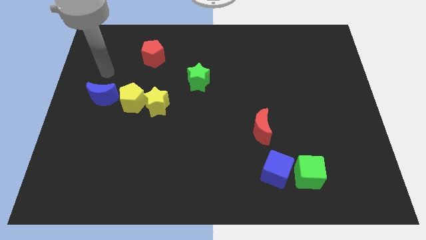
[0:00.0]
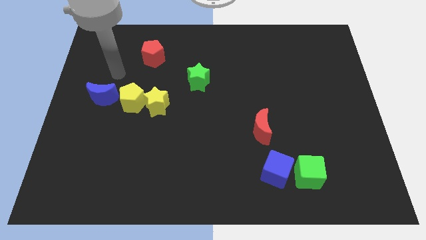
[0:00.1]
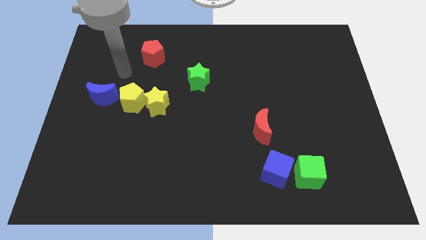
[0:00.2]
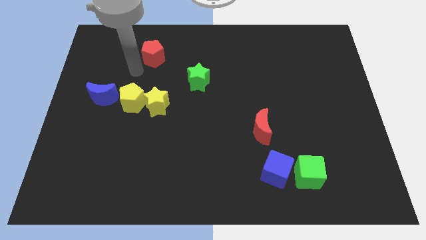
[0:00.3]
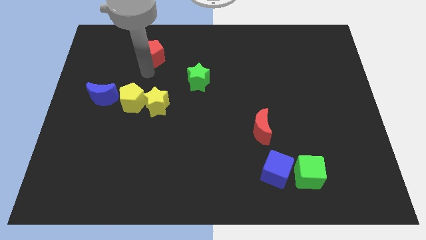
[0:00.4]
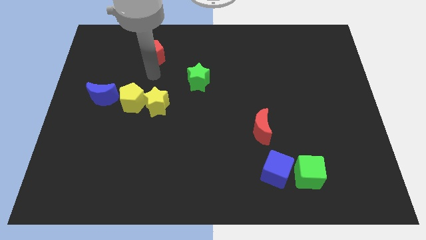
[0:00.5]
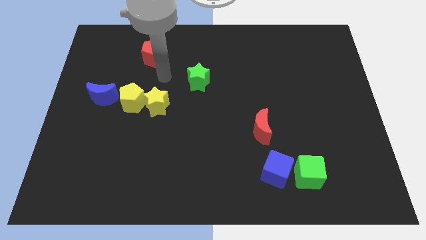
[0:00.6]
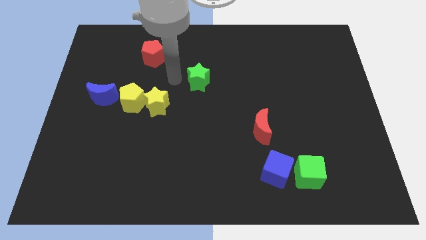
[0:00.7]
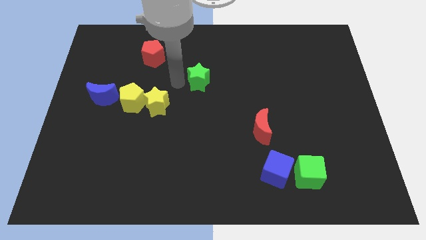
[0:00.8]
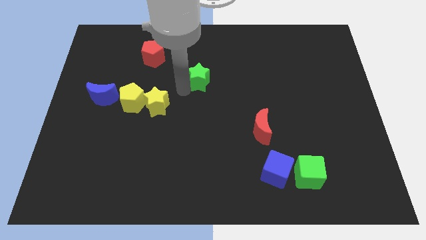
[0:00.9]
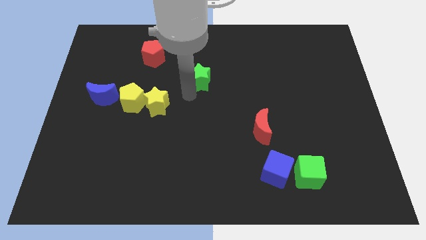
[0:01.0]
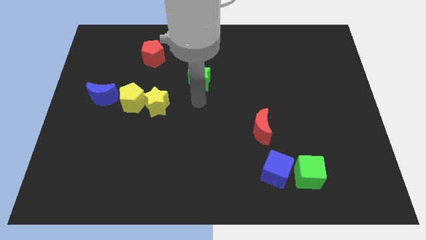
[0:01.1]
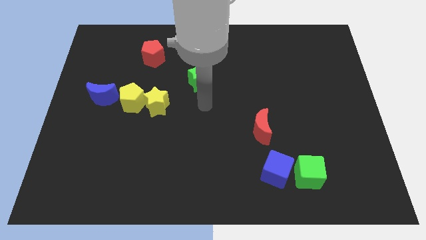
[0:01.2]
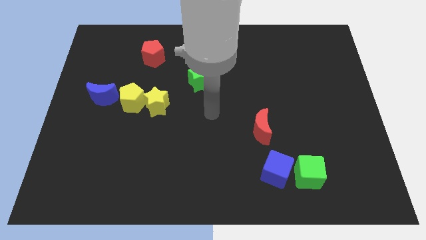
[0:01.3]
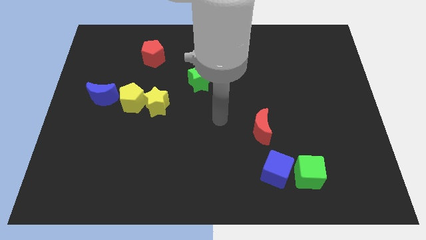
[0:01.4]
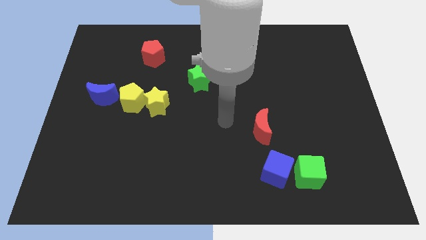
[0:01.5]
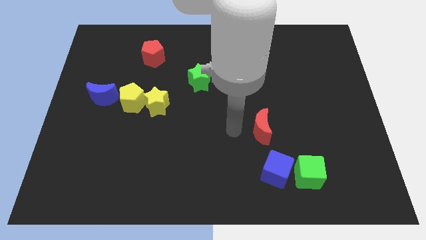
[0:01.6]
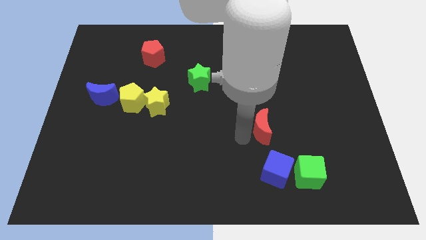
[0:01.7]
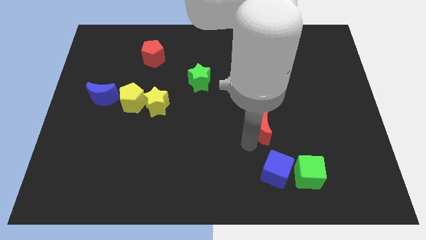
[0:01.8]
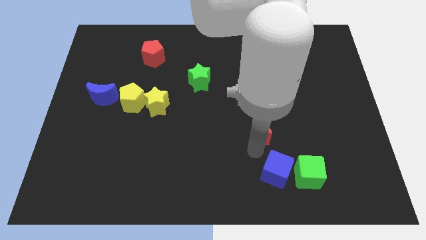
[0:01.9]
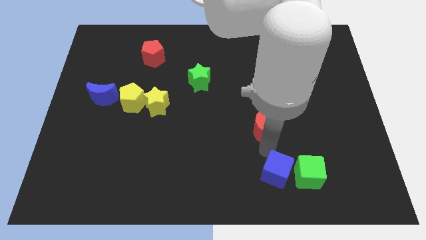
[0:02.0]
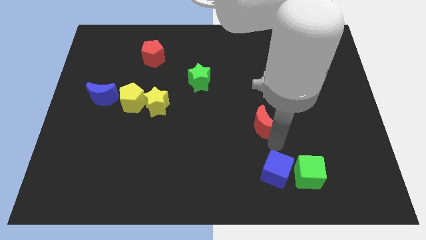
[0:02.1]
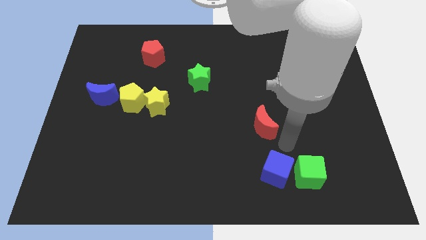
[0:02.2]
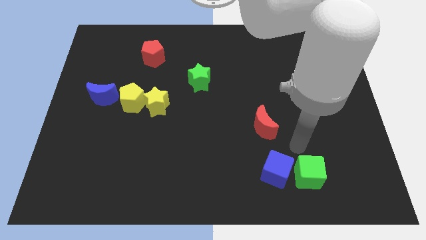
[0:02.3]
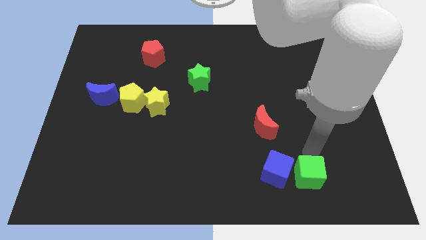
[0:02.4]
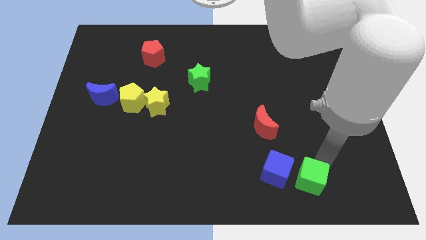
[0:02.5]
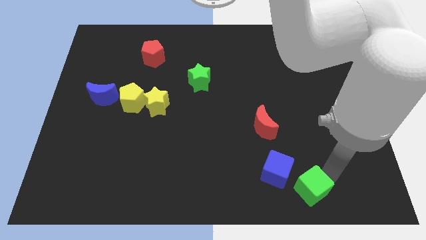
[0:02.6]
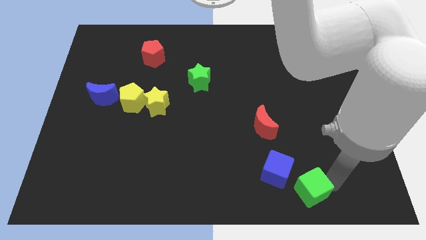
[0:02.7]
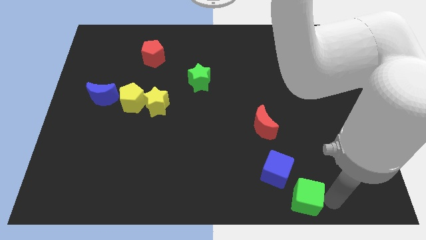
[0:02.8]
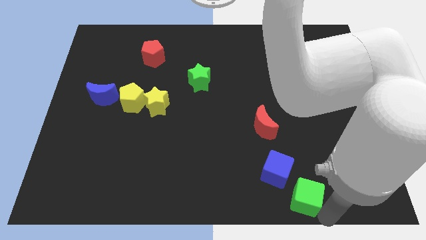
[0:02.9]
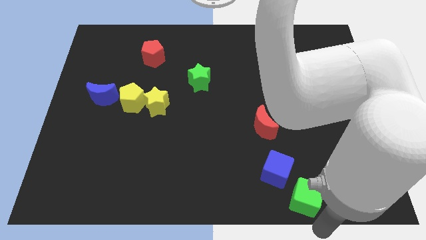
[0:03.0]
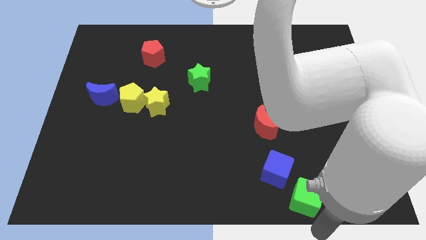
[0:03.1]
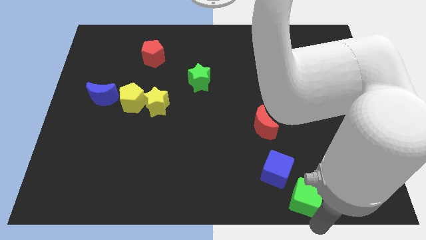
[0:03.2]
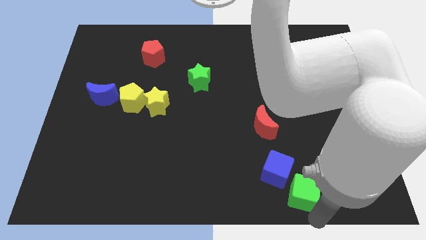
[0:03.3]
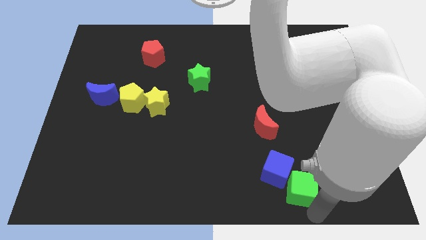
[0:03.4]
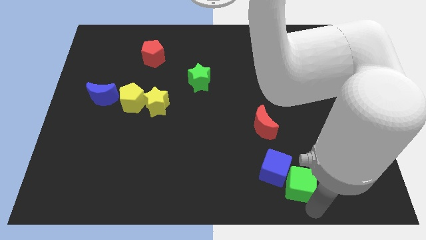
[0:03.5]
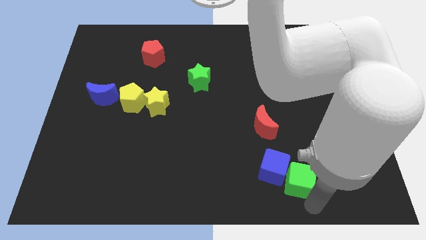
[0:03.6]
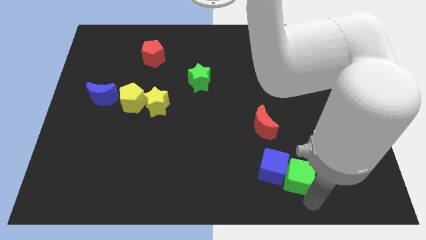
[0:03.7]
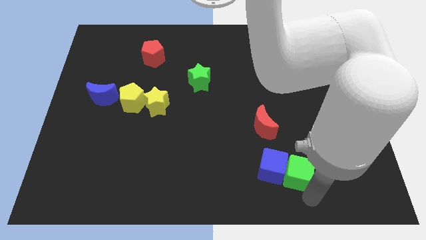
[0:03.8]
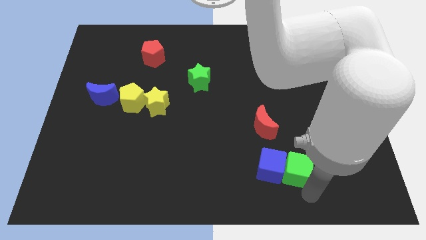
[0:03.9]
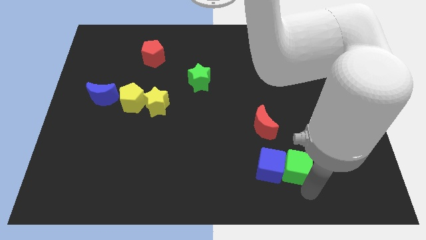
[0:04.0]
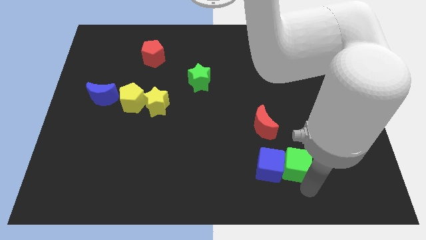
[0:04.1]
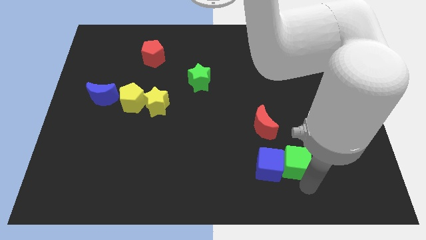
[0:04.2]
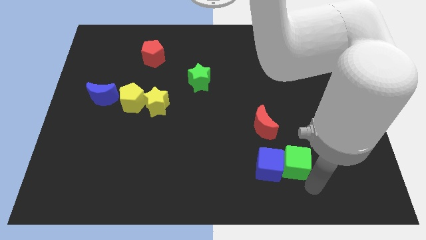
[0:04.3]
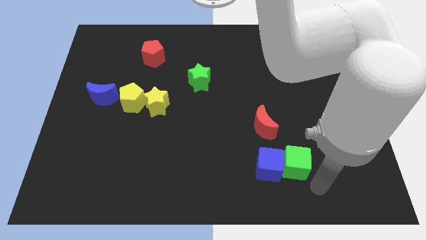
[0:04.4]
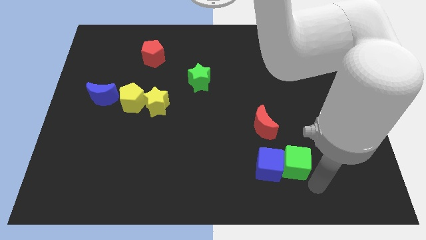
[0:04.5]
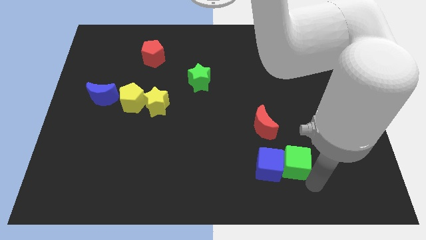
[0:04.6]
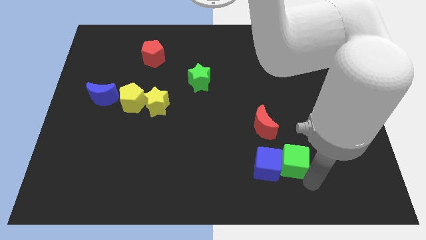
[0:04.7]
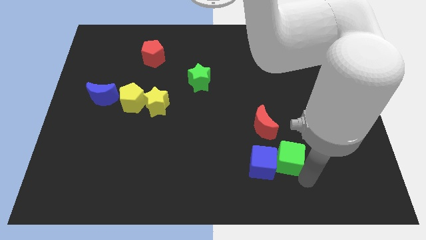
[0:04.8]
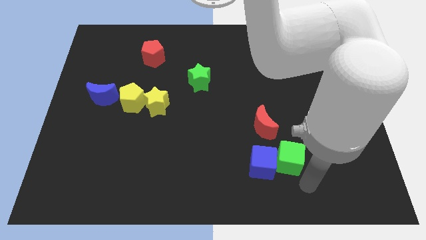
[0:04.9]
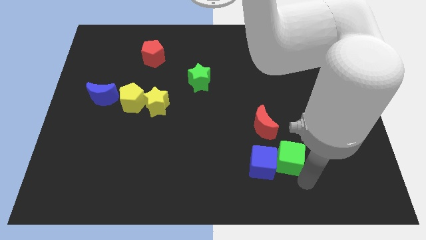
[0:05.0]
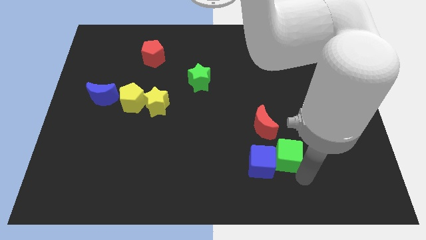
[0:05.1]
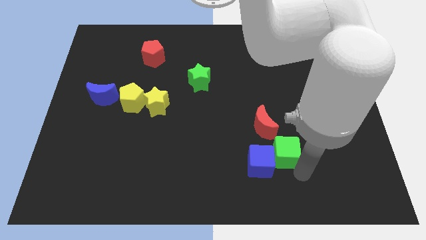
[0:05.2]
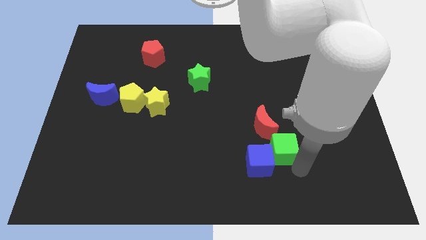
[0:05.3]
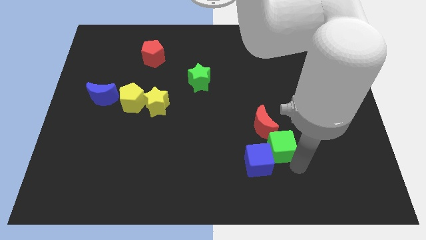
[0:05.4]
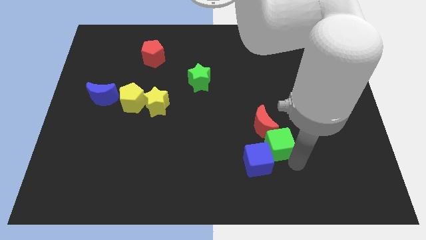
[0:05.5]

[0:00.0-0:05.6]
move the green cube towards the red moon

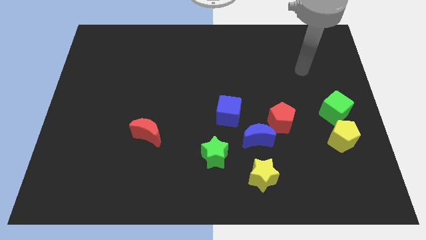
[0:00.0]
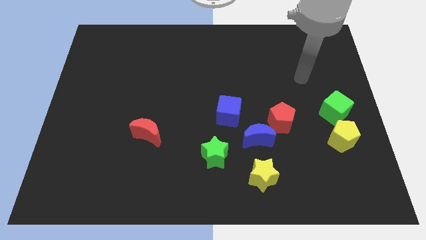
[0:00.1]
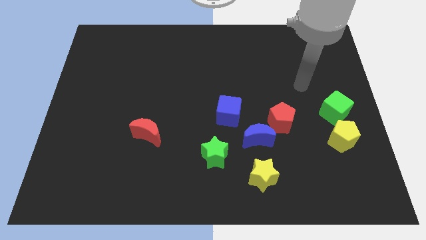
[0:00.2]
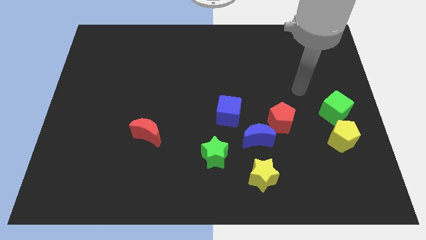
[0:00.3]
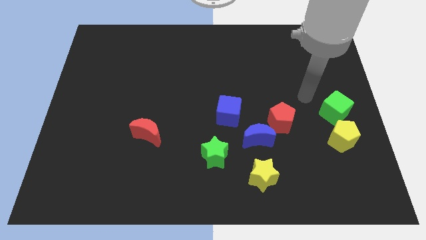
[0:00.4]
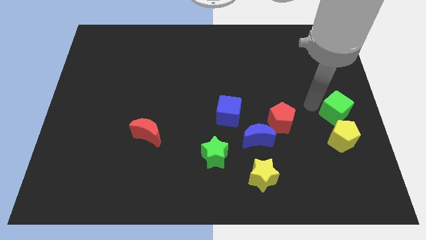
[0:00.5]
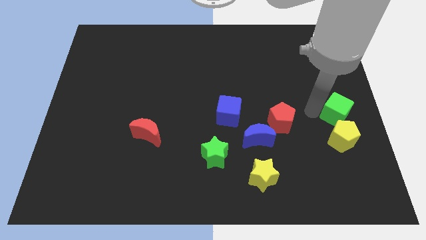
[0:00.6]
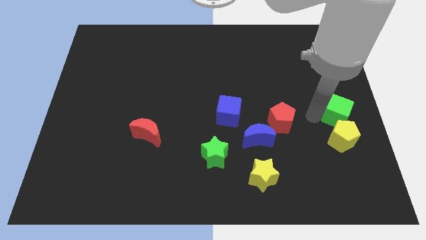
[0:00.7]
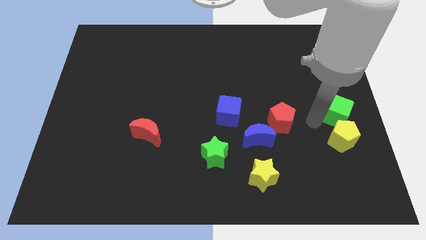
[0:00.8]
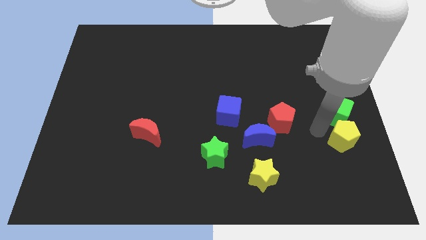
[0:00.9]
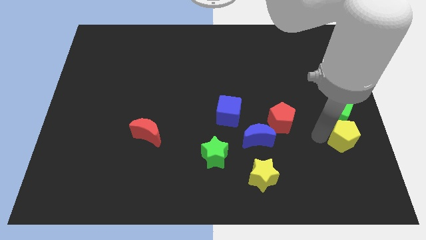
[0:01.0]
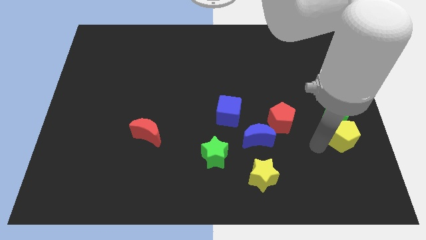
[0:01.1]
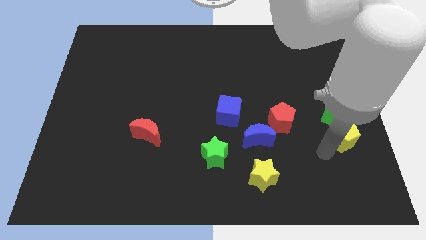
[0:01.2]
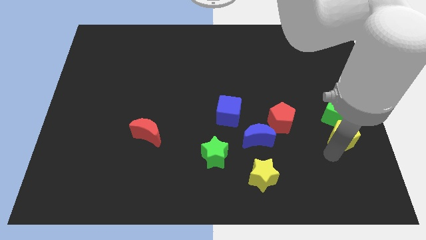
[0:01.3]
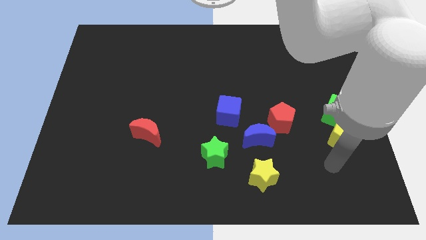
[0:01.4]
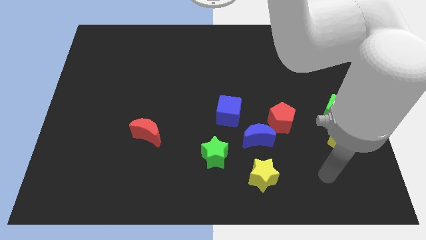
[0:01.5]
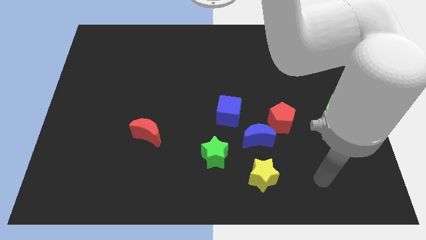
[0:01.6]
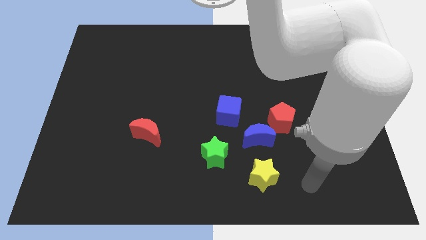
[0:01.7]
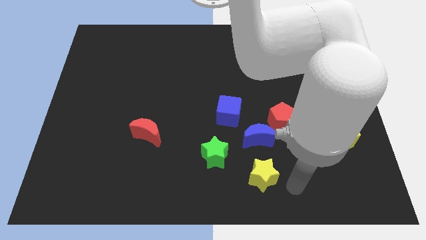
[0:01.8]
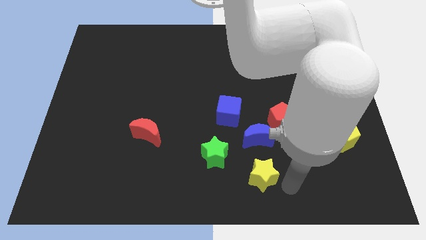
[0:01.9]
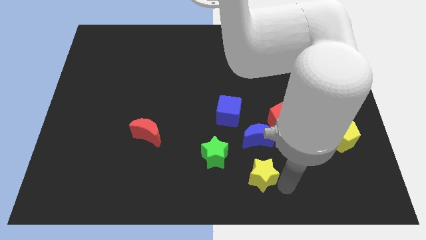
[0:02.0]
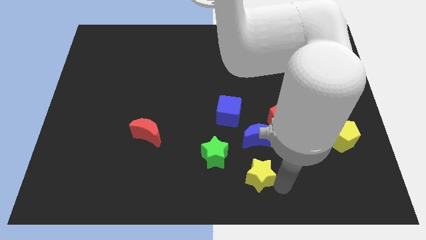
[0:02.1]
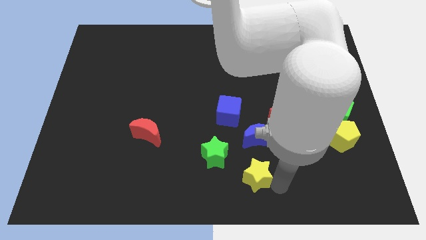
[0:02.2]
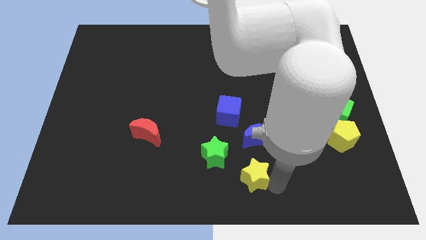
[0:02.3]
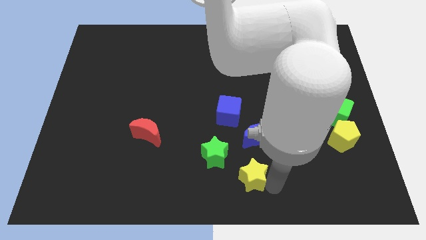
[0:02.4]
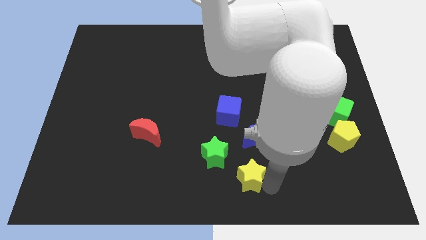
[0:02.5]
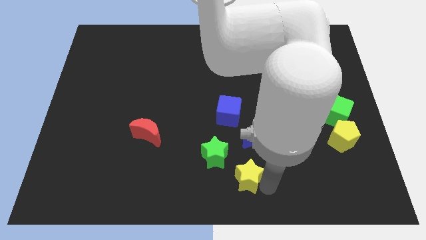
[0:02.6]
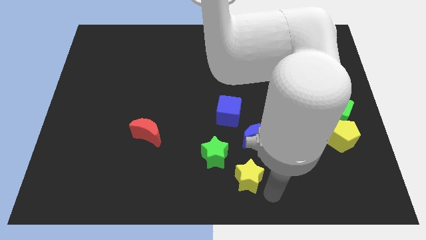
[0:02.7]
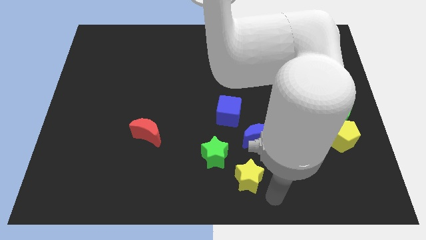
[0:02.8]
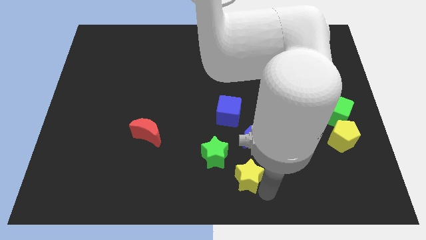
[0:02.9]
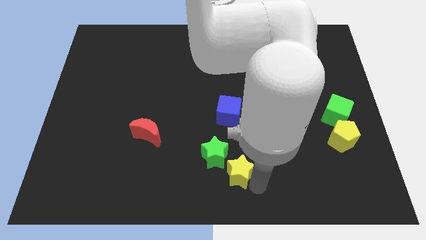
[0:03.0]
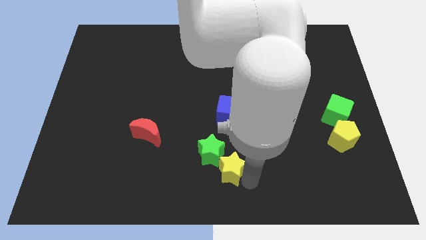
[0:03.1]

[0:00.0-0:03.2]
put the yellow star next to the green star
